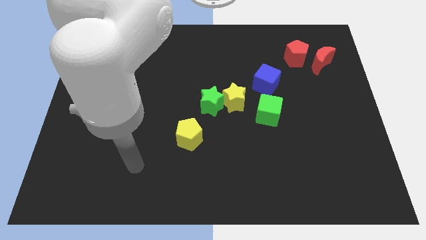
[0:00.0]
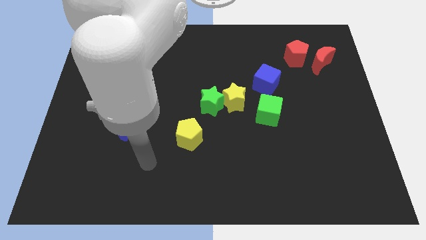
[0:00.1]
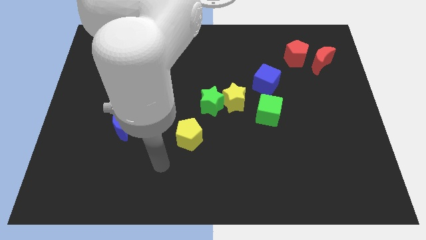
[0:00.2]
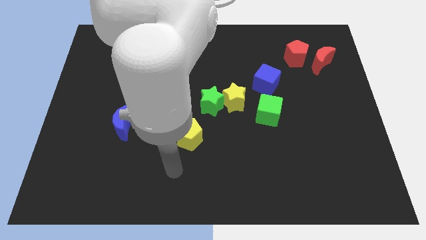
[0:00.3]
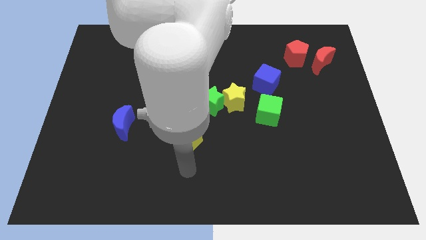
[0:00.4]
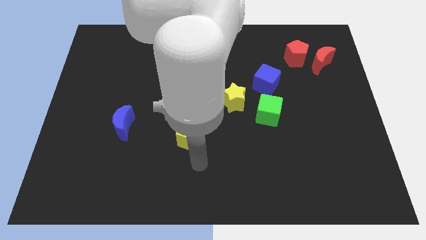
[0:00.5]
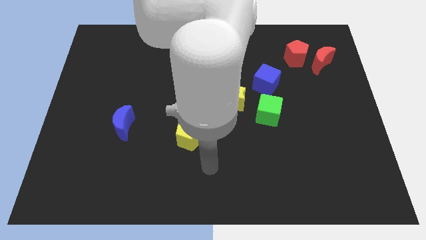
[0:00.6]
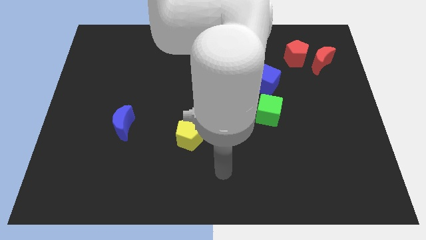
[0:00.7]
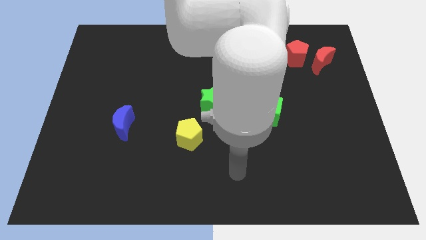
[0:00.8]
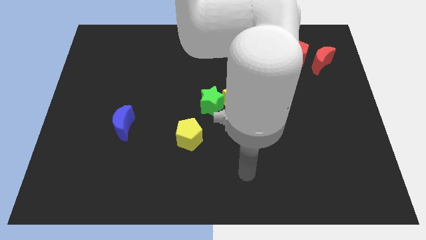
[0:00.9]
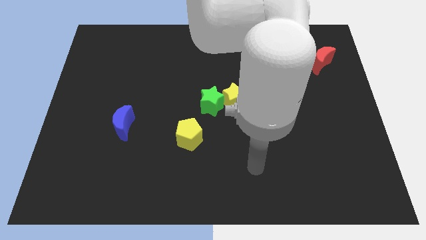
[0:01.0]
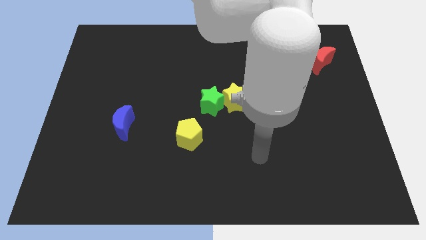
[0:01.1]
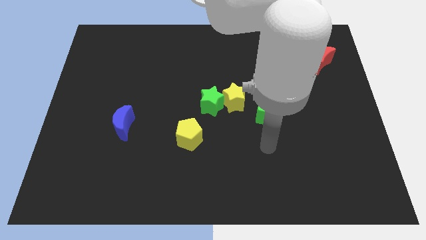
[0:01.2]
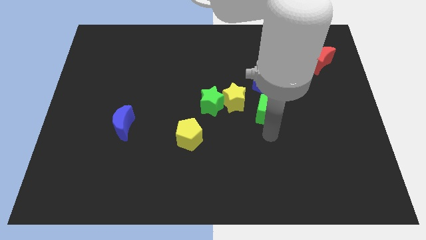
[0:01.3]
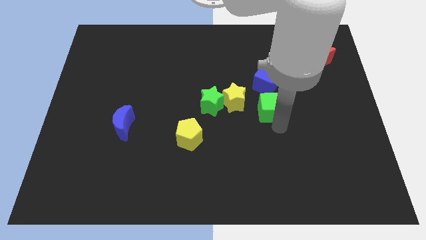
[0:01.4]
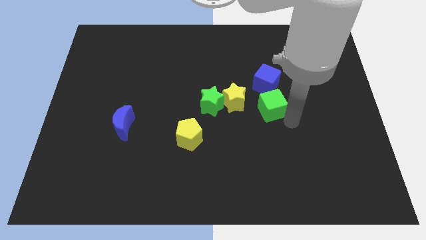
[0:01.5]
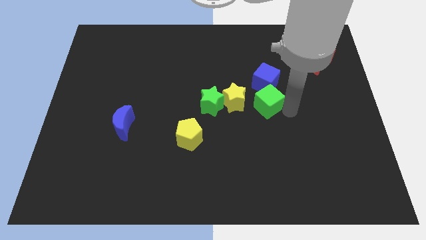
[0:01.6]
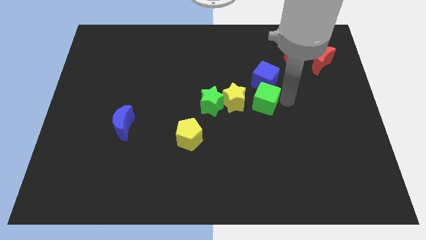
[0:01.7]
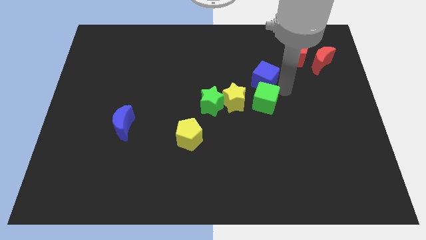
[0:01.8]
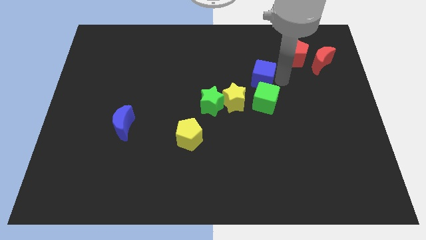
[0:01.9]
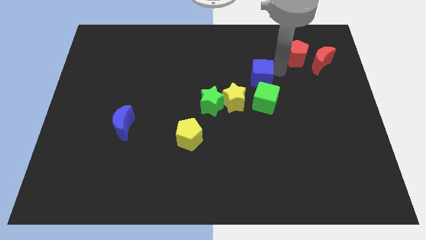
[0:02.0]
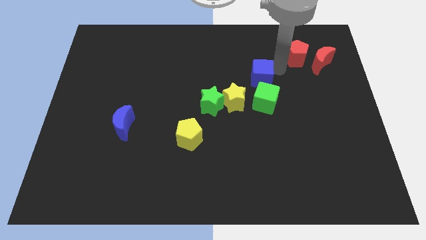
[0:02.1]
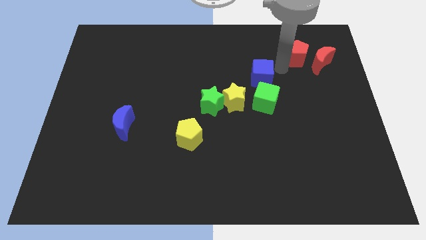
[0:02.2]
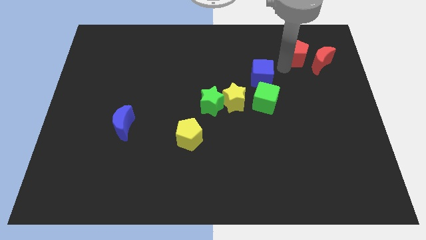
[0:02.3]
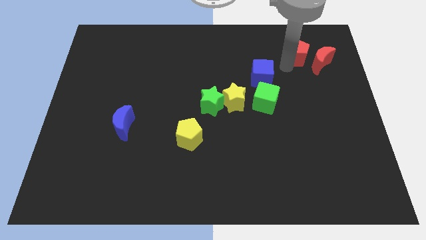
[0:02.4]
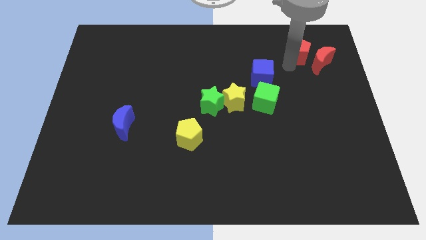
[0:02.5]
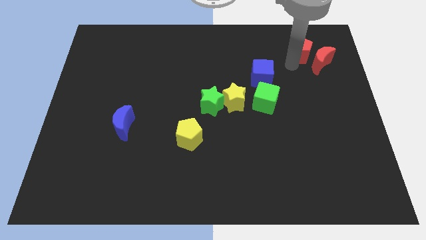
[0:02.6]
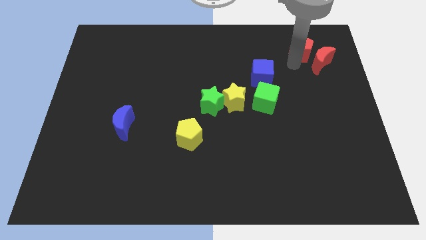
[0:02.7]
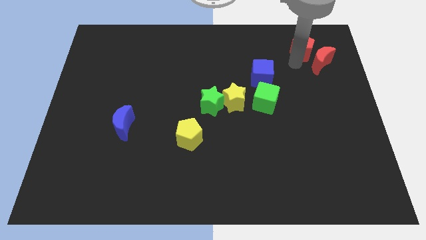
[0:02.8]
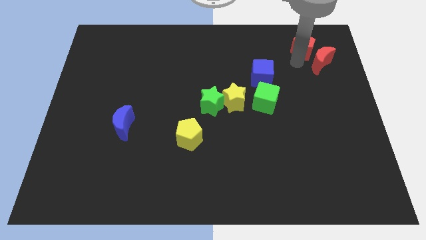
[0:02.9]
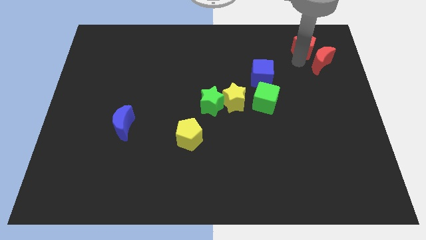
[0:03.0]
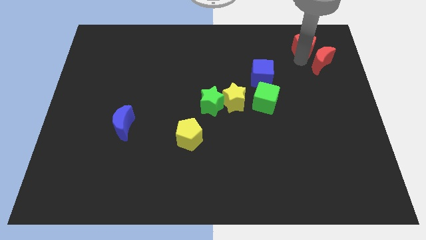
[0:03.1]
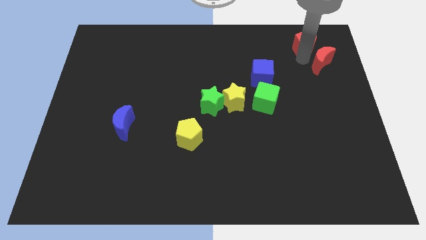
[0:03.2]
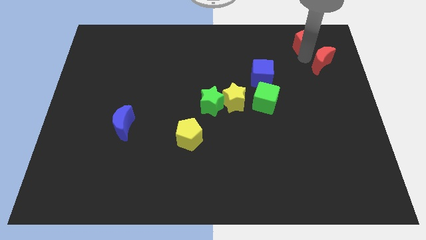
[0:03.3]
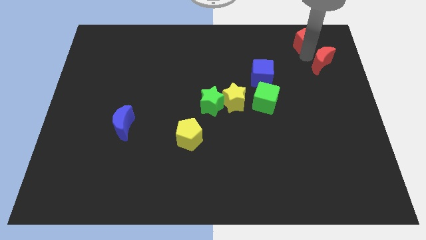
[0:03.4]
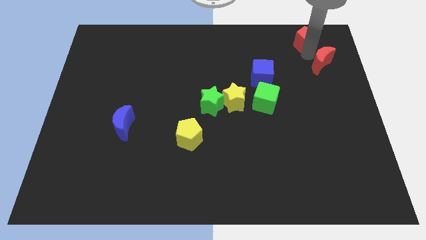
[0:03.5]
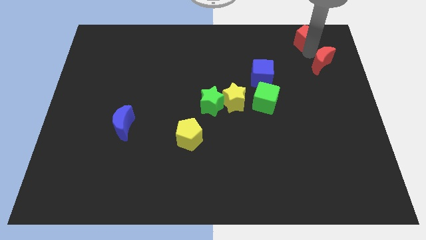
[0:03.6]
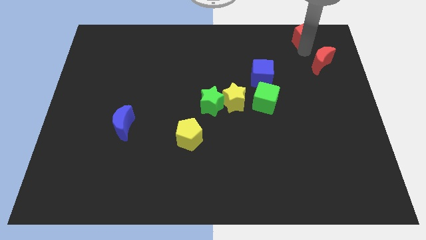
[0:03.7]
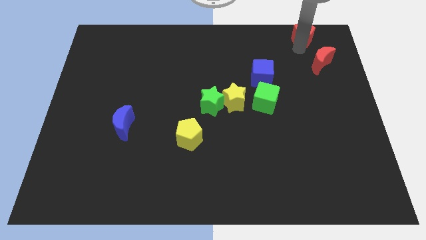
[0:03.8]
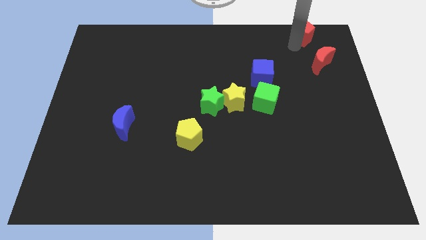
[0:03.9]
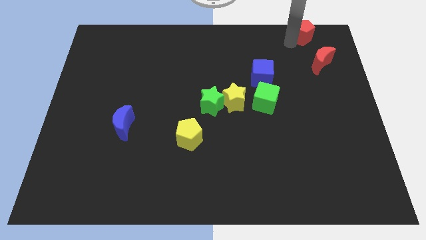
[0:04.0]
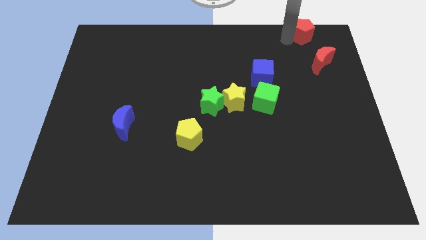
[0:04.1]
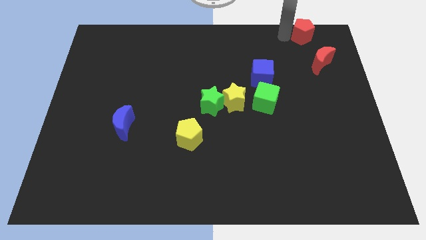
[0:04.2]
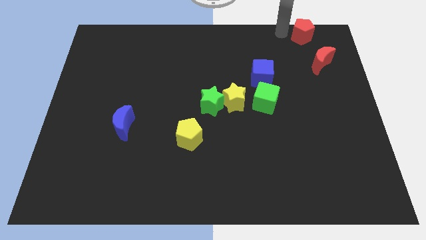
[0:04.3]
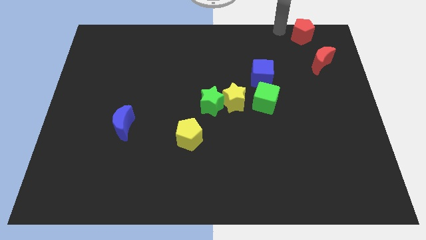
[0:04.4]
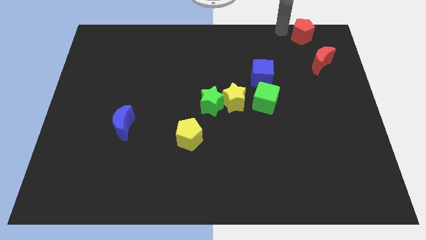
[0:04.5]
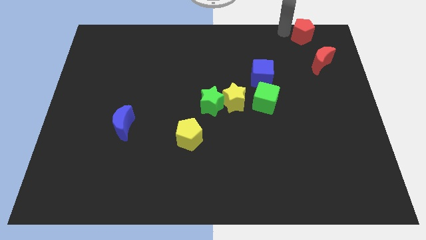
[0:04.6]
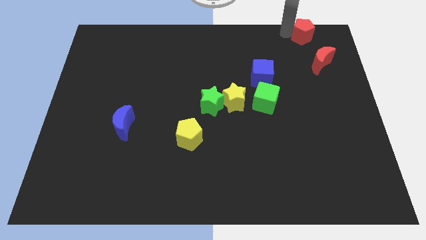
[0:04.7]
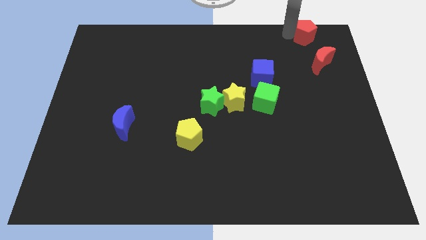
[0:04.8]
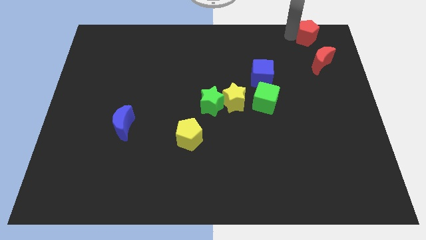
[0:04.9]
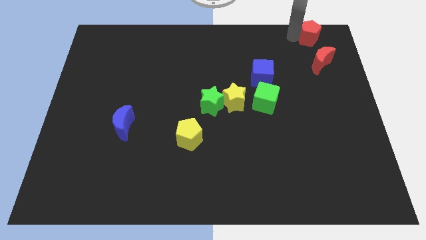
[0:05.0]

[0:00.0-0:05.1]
push the red pentagon to the top right corner

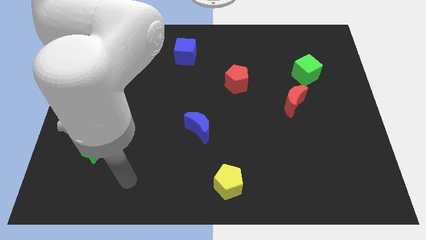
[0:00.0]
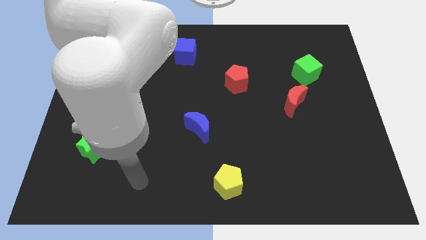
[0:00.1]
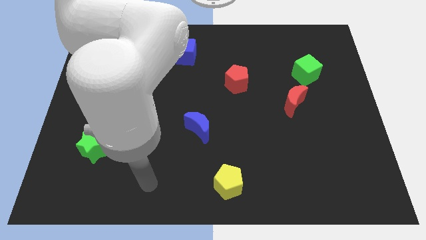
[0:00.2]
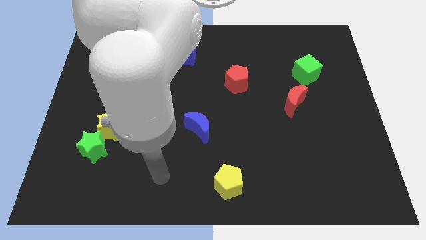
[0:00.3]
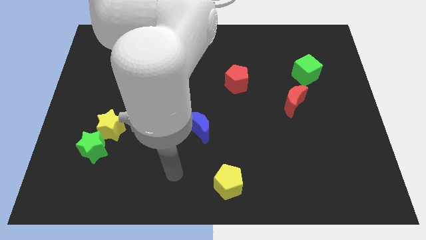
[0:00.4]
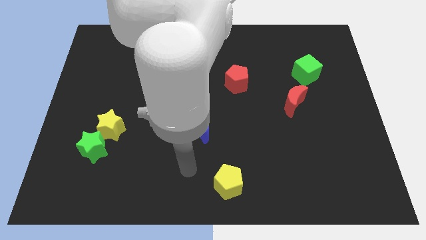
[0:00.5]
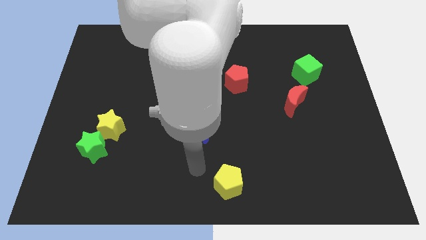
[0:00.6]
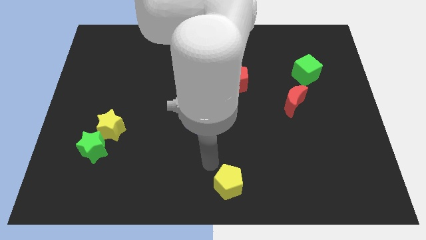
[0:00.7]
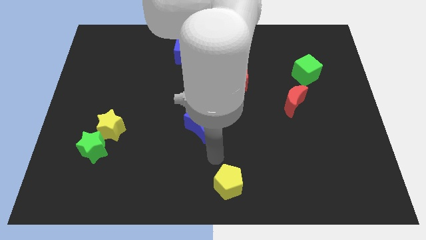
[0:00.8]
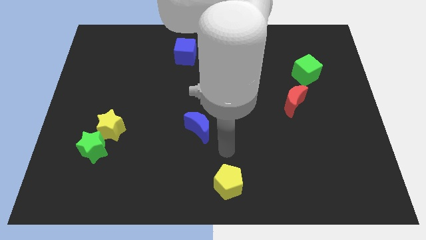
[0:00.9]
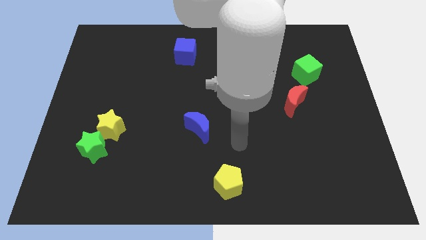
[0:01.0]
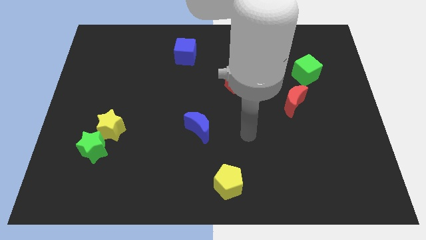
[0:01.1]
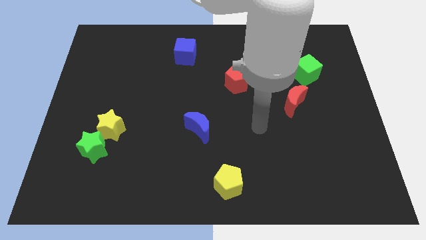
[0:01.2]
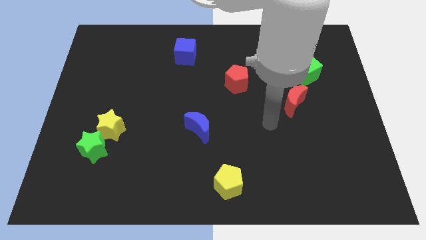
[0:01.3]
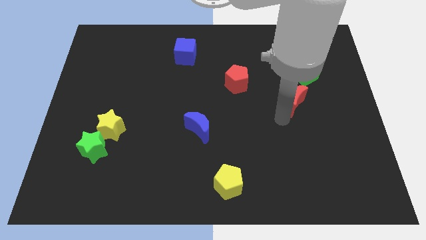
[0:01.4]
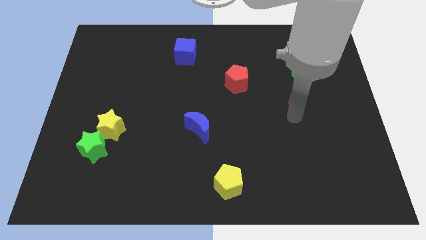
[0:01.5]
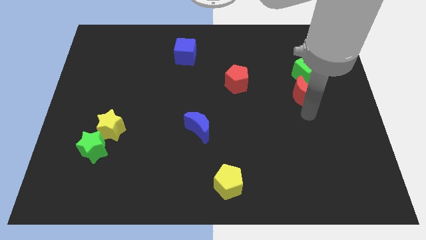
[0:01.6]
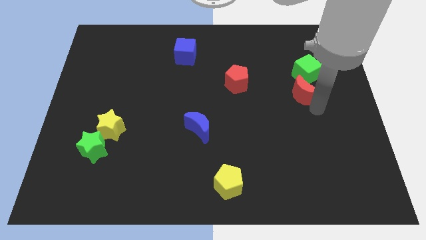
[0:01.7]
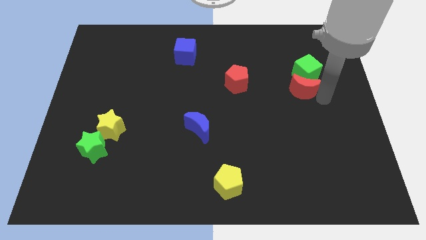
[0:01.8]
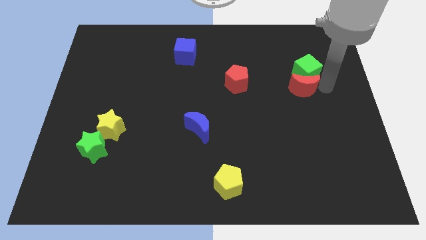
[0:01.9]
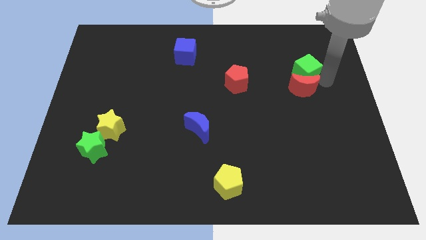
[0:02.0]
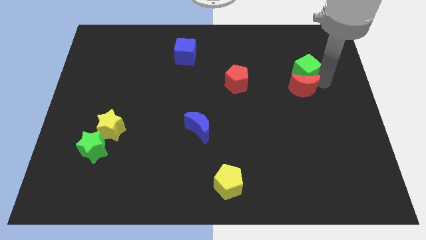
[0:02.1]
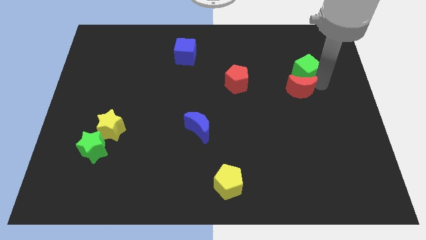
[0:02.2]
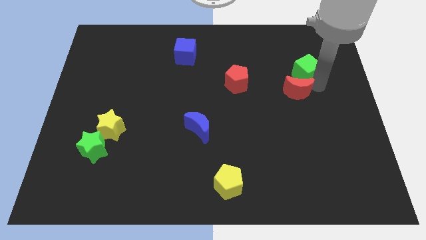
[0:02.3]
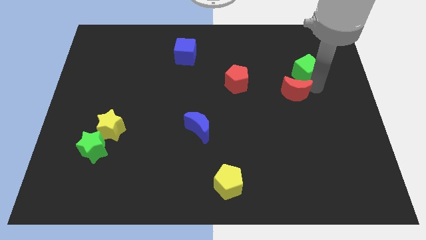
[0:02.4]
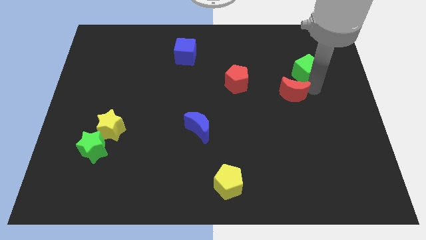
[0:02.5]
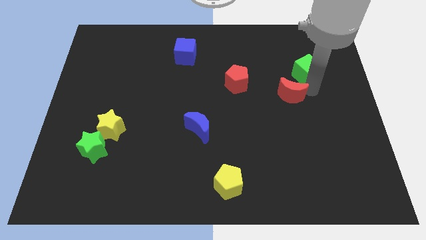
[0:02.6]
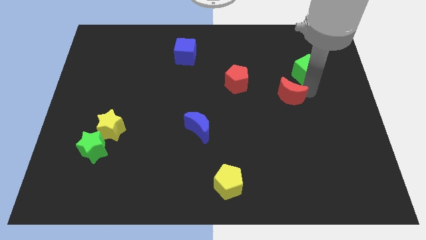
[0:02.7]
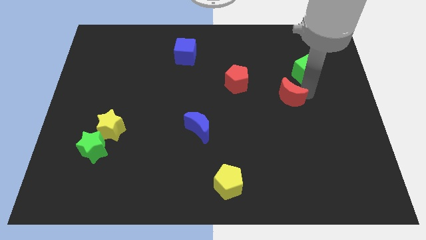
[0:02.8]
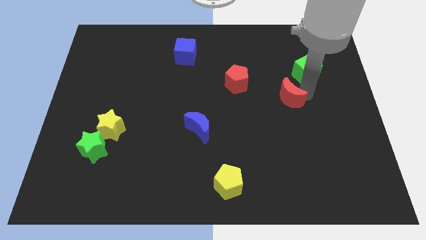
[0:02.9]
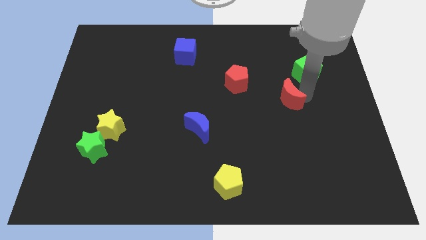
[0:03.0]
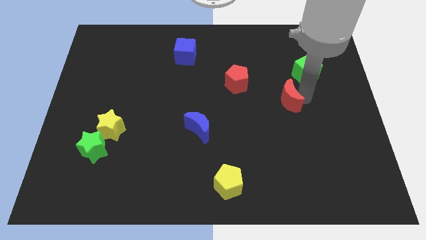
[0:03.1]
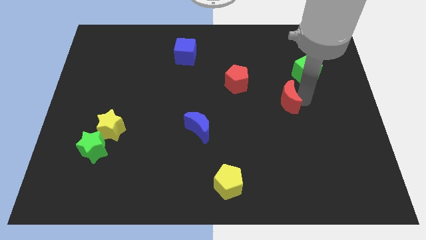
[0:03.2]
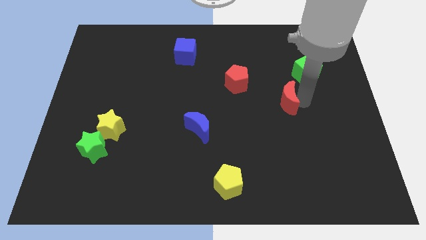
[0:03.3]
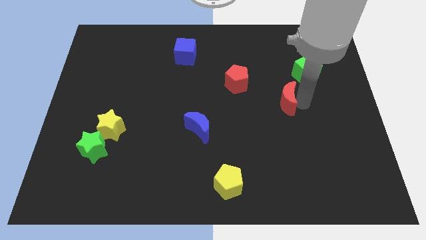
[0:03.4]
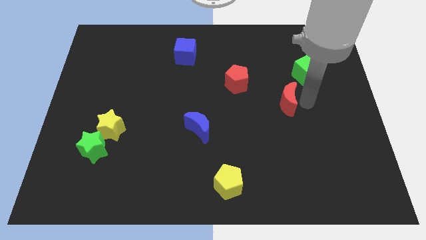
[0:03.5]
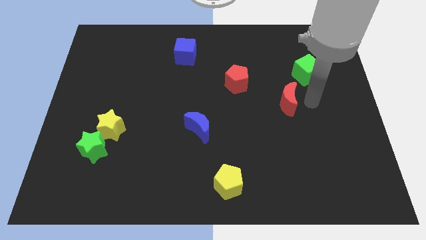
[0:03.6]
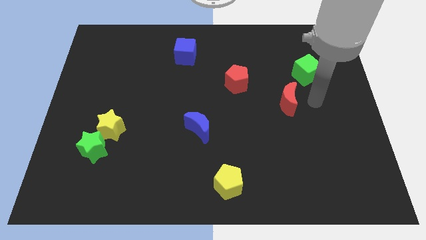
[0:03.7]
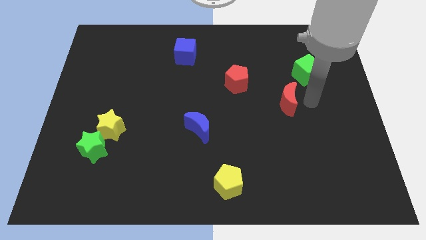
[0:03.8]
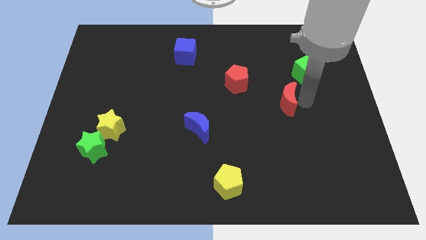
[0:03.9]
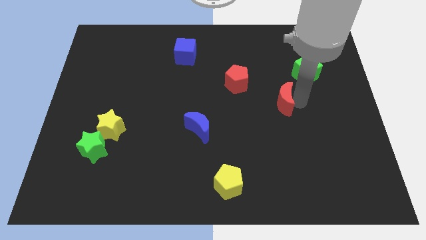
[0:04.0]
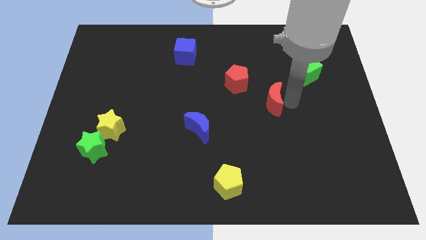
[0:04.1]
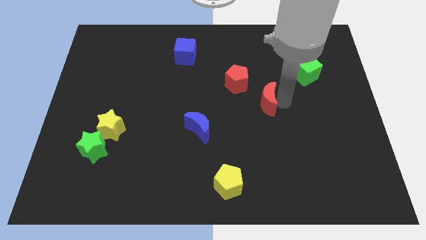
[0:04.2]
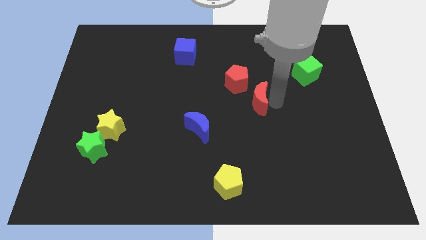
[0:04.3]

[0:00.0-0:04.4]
put the red moon to the middle
